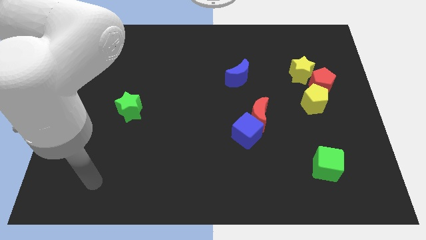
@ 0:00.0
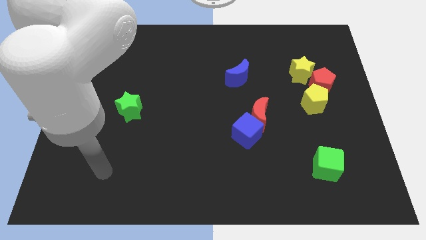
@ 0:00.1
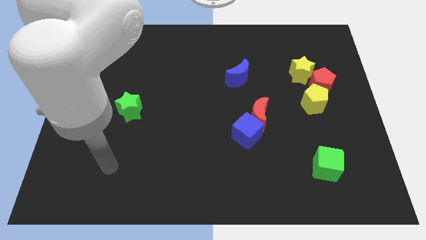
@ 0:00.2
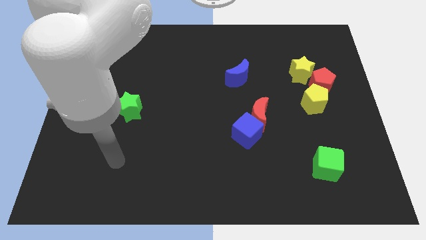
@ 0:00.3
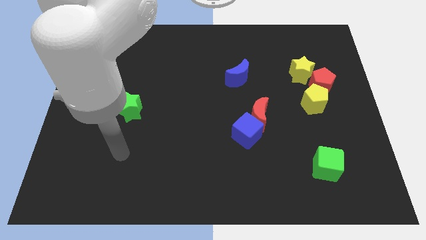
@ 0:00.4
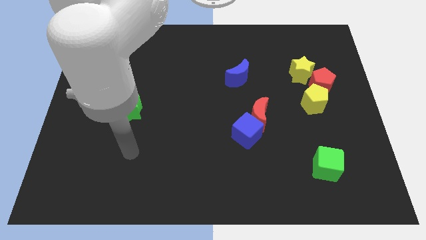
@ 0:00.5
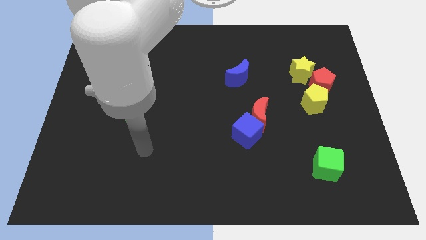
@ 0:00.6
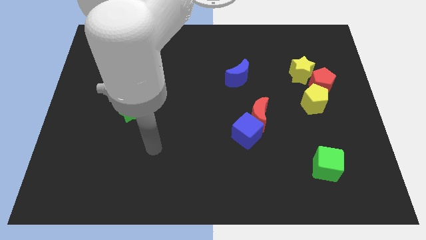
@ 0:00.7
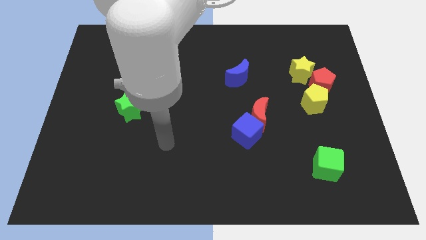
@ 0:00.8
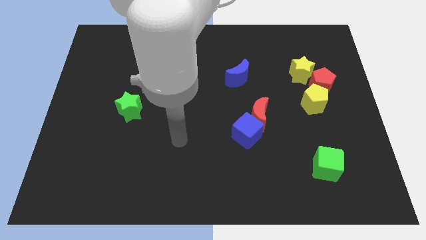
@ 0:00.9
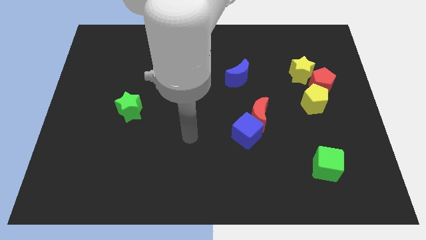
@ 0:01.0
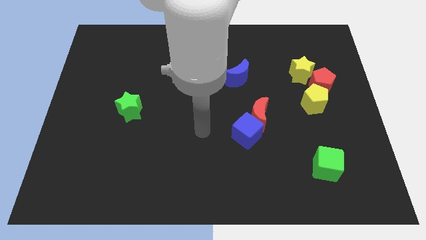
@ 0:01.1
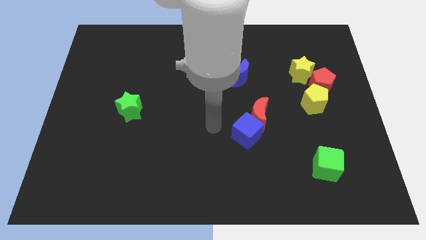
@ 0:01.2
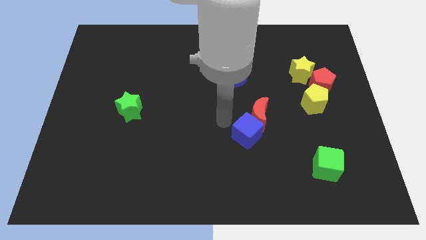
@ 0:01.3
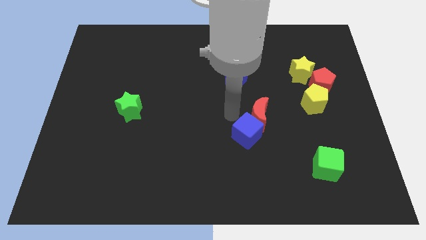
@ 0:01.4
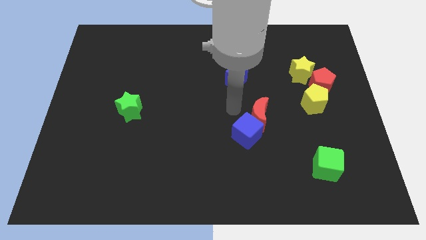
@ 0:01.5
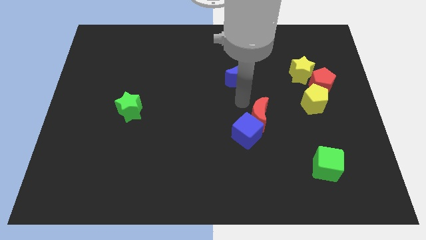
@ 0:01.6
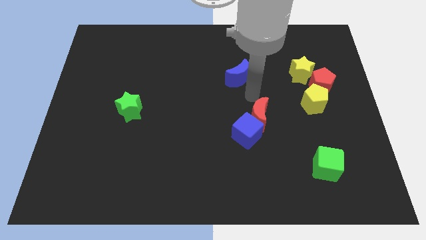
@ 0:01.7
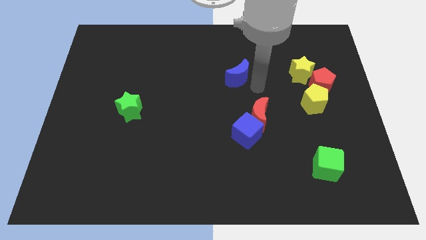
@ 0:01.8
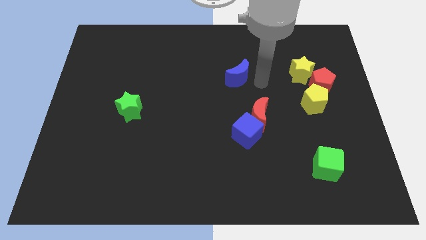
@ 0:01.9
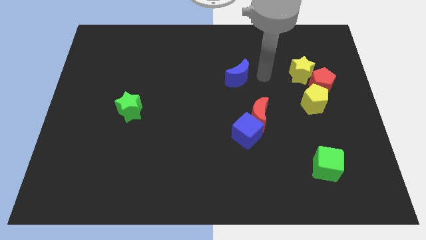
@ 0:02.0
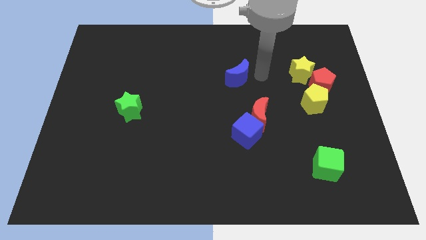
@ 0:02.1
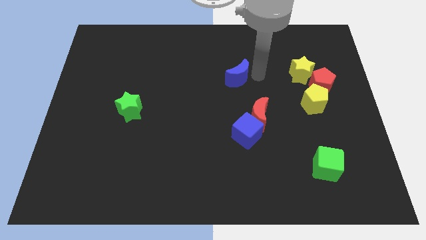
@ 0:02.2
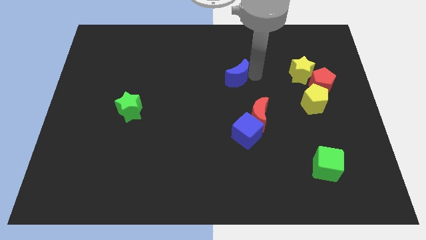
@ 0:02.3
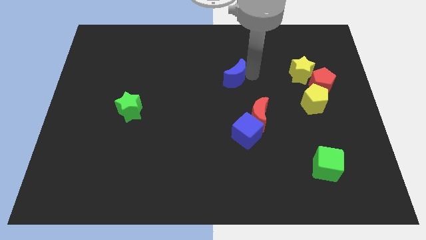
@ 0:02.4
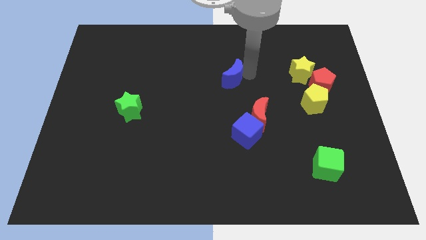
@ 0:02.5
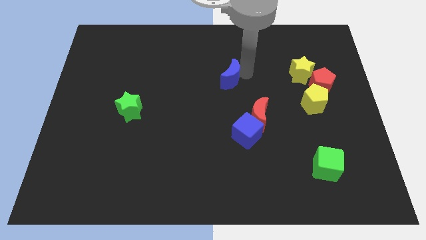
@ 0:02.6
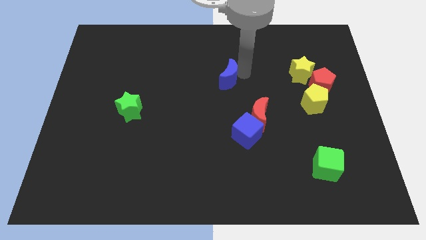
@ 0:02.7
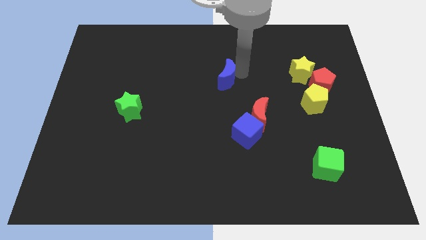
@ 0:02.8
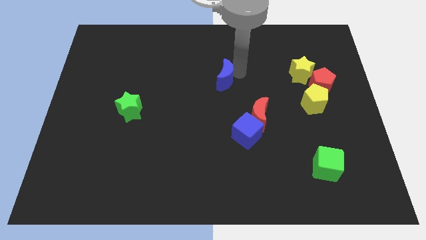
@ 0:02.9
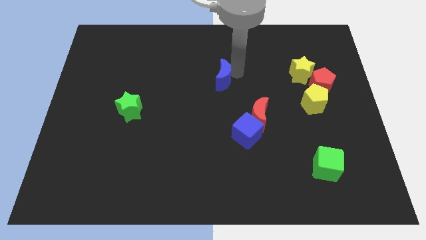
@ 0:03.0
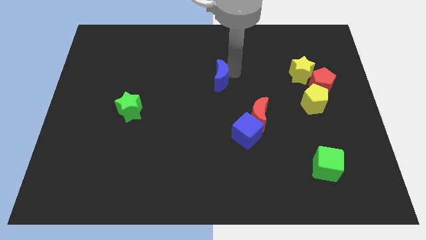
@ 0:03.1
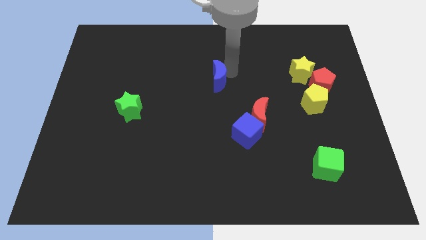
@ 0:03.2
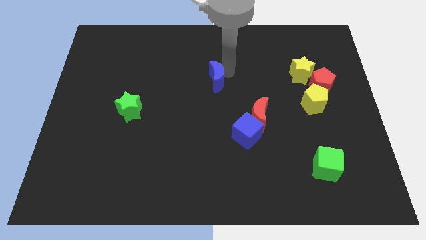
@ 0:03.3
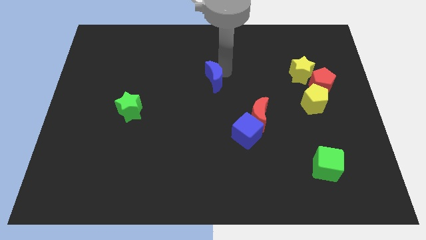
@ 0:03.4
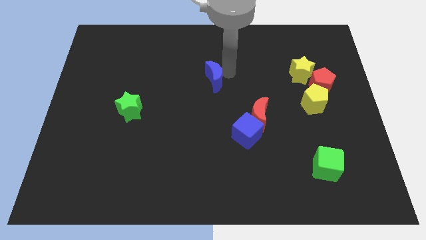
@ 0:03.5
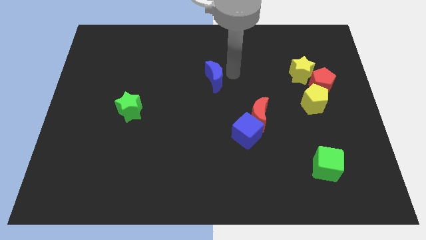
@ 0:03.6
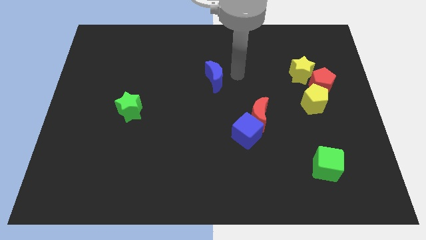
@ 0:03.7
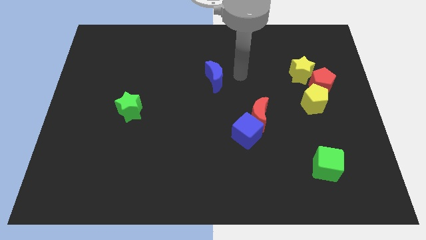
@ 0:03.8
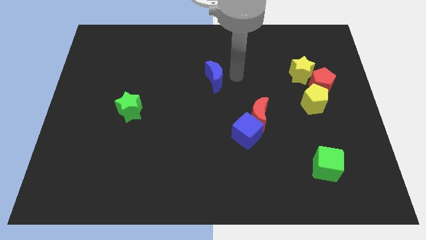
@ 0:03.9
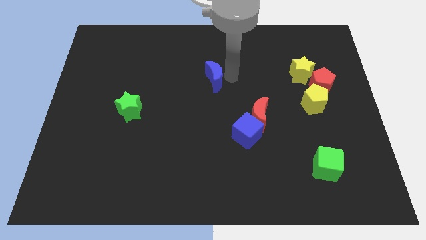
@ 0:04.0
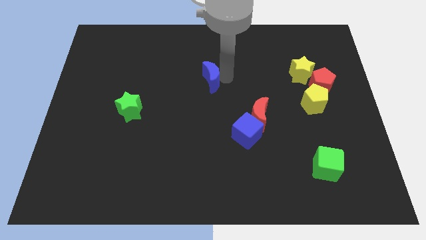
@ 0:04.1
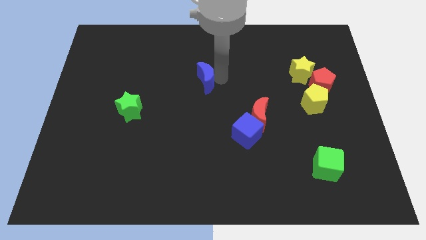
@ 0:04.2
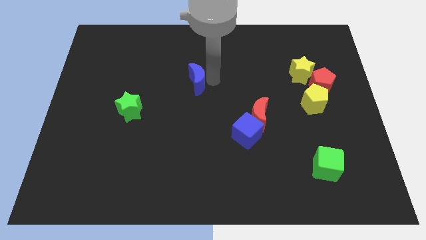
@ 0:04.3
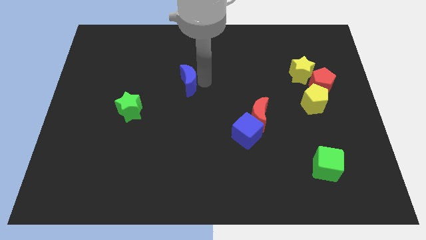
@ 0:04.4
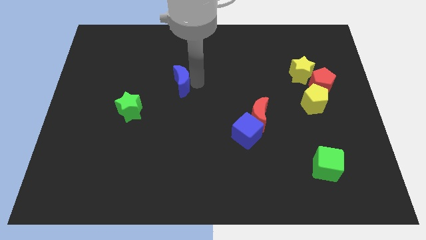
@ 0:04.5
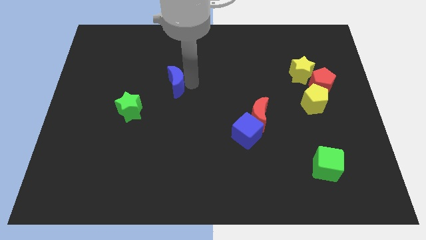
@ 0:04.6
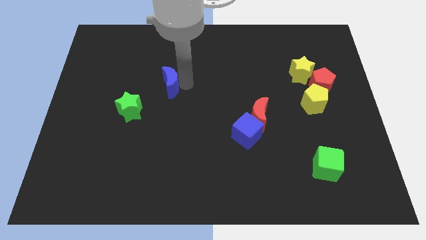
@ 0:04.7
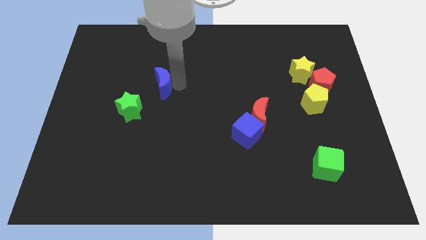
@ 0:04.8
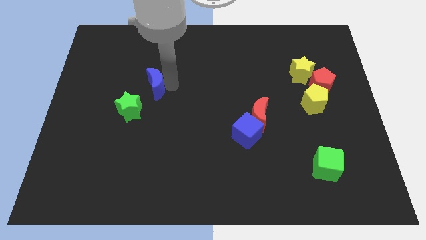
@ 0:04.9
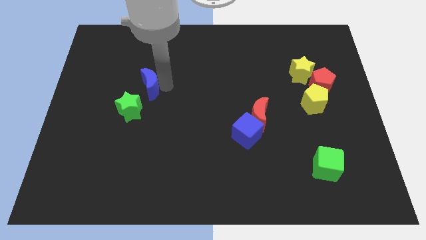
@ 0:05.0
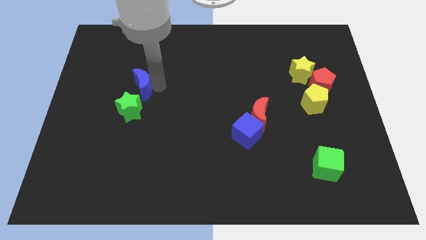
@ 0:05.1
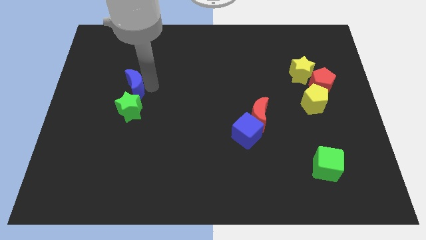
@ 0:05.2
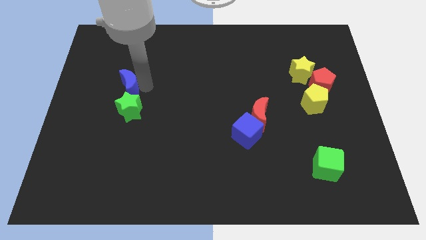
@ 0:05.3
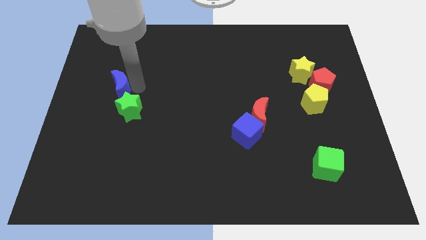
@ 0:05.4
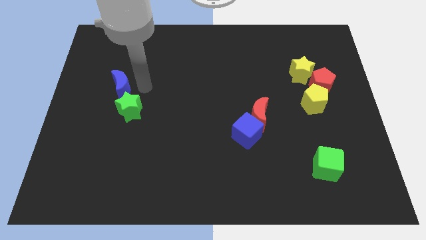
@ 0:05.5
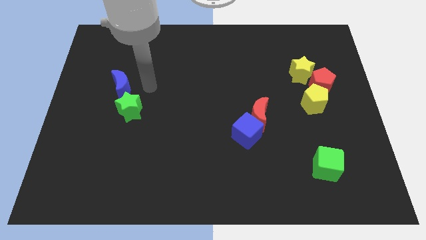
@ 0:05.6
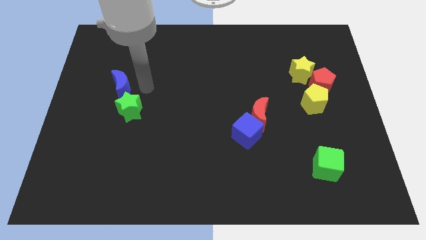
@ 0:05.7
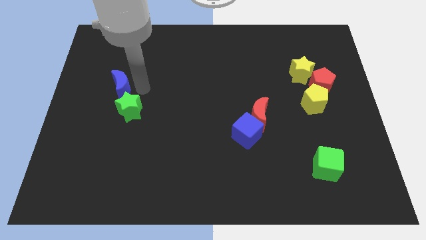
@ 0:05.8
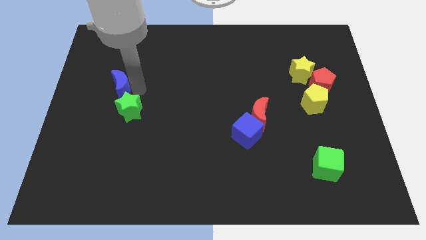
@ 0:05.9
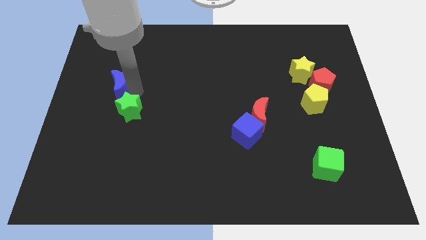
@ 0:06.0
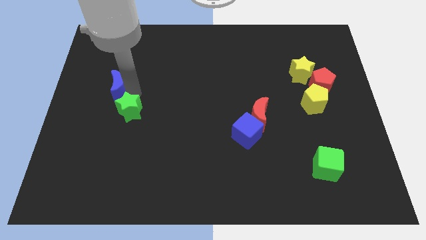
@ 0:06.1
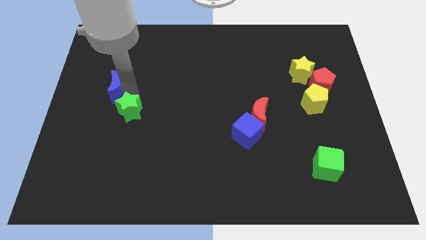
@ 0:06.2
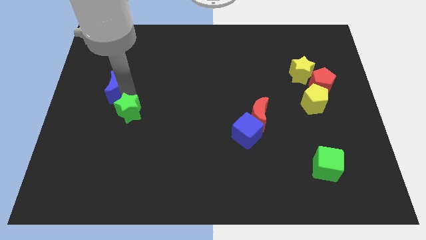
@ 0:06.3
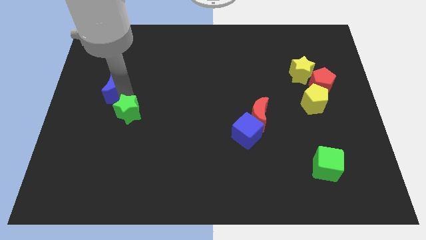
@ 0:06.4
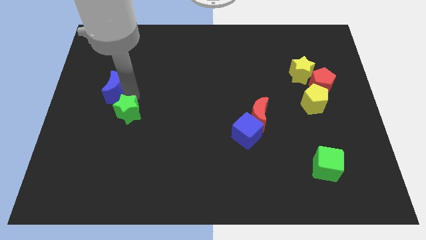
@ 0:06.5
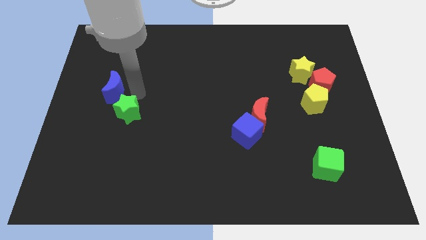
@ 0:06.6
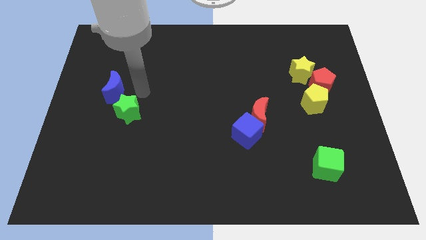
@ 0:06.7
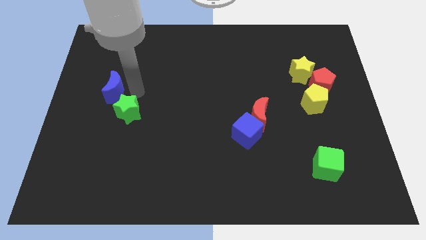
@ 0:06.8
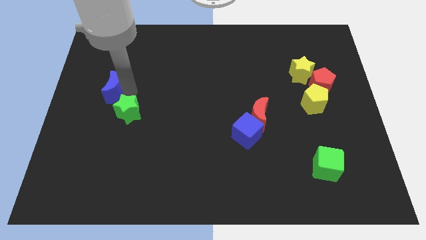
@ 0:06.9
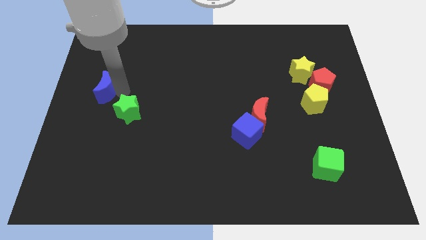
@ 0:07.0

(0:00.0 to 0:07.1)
push the blue moon to the left side of the board

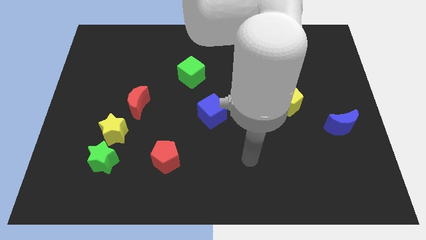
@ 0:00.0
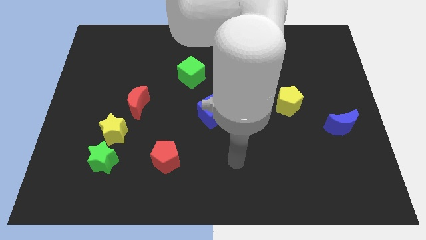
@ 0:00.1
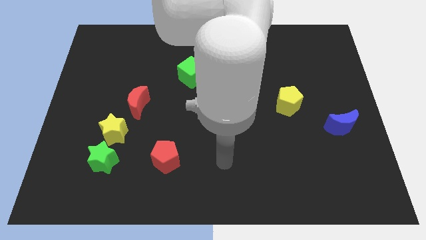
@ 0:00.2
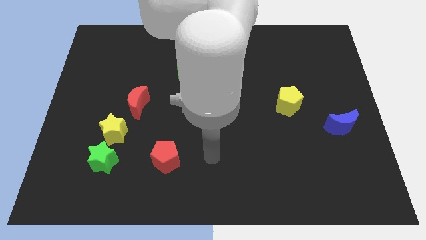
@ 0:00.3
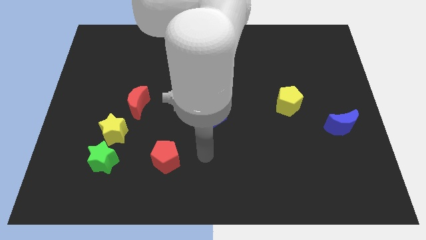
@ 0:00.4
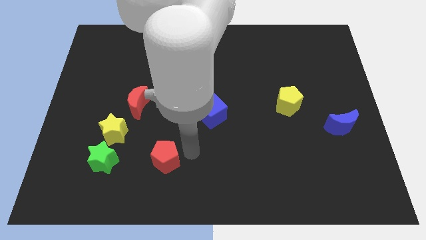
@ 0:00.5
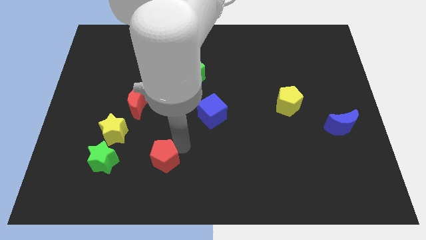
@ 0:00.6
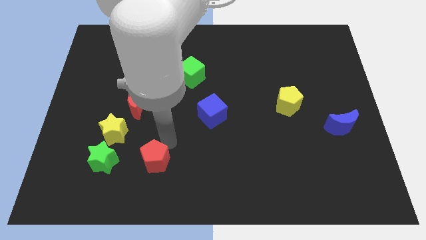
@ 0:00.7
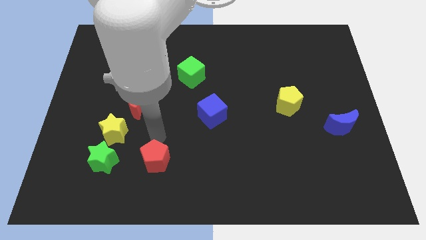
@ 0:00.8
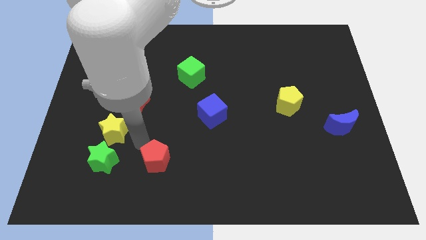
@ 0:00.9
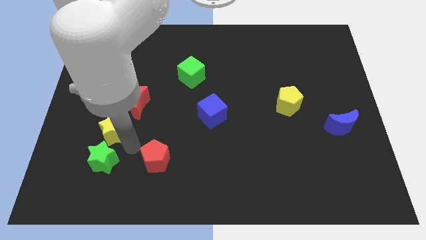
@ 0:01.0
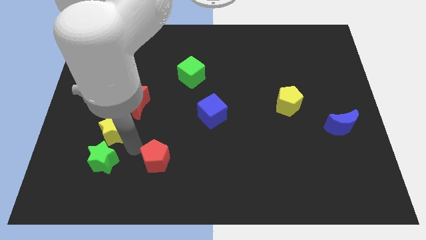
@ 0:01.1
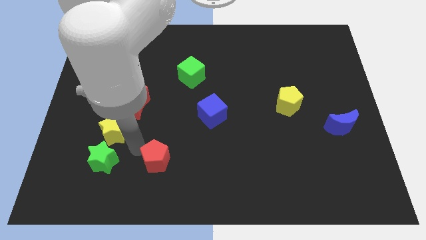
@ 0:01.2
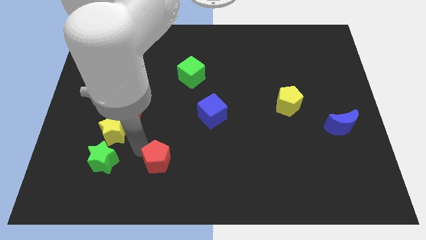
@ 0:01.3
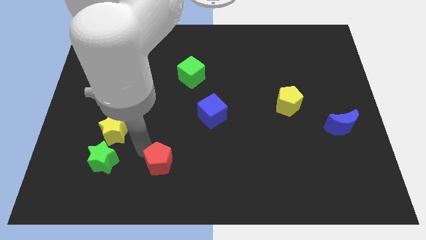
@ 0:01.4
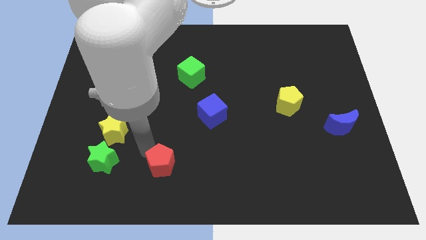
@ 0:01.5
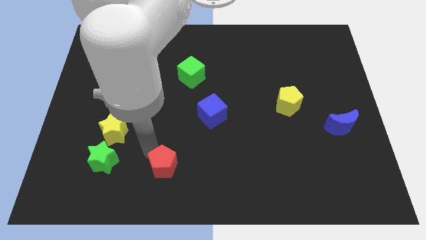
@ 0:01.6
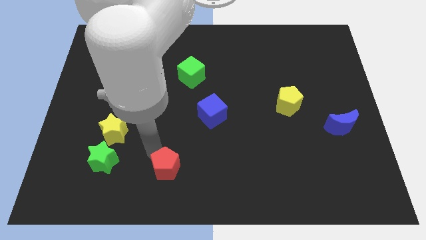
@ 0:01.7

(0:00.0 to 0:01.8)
push the red pentagon to the bottom
